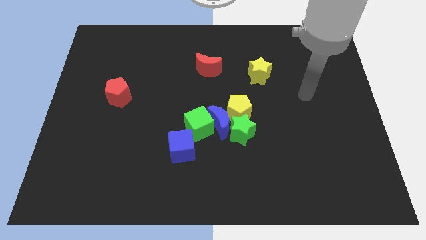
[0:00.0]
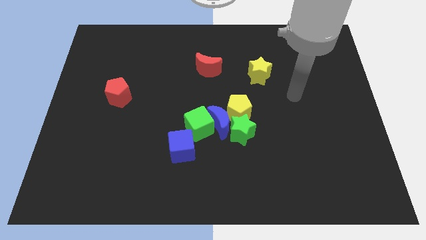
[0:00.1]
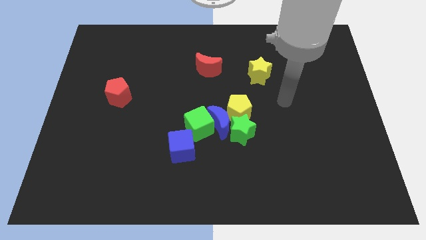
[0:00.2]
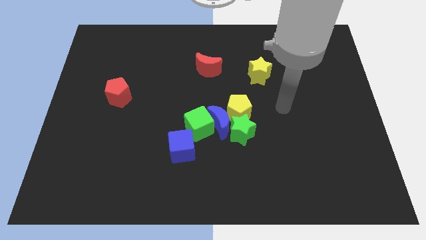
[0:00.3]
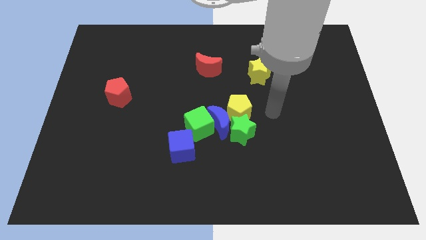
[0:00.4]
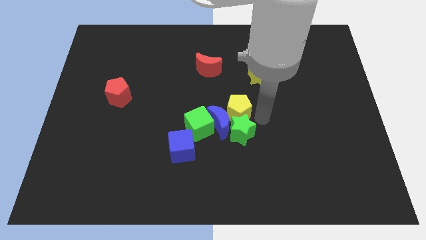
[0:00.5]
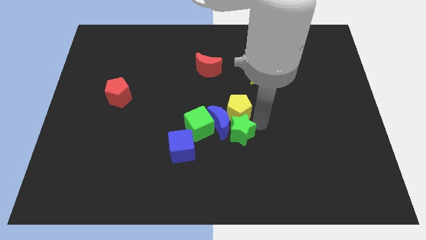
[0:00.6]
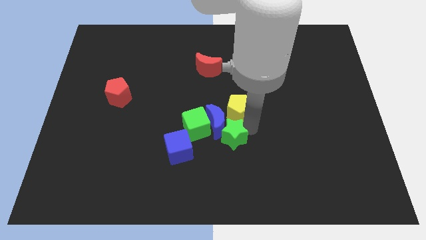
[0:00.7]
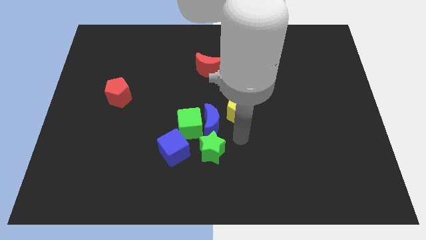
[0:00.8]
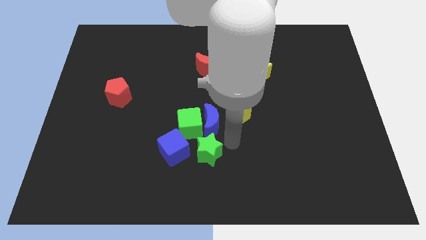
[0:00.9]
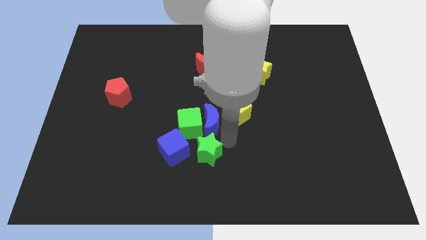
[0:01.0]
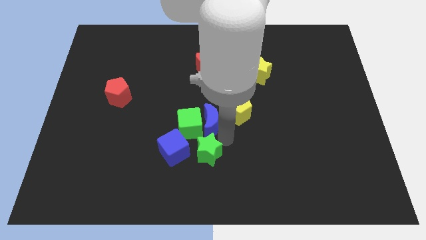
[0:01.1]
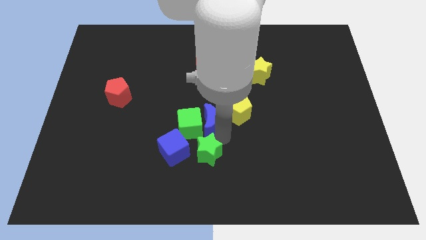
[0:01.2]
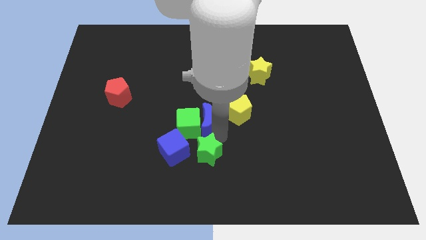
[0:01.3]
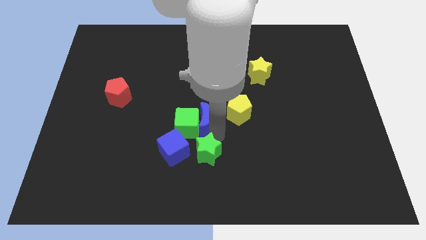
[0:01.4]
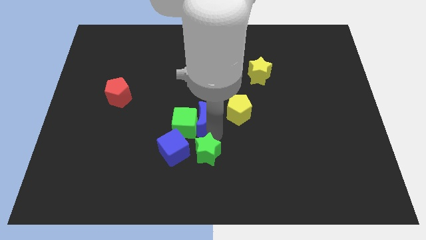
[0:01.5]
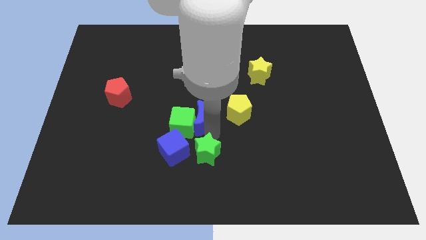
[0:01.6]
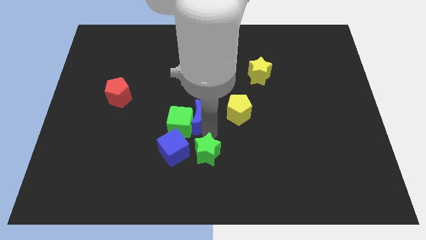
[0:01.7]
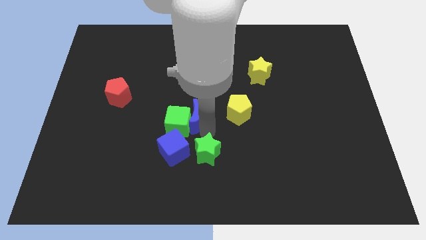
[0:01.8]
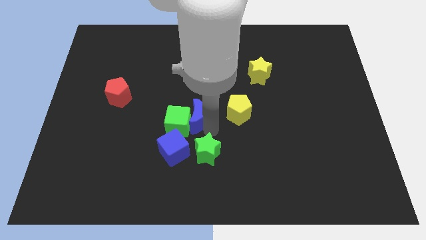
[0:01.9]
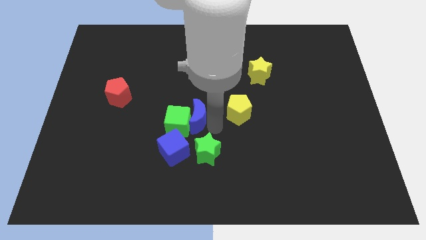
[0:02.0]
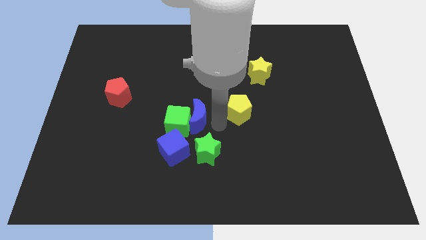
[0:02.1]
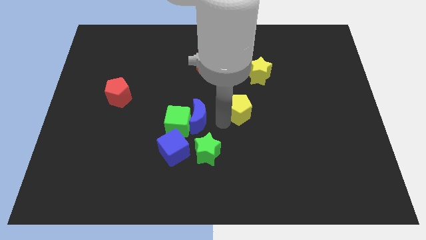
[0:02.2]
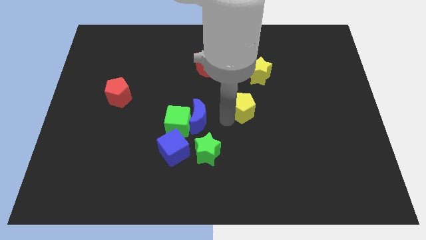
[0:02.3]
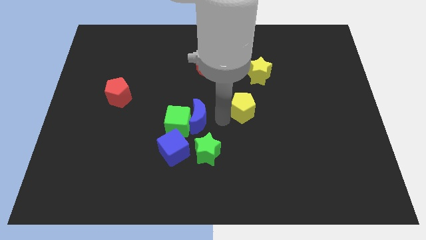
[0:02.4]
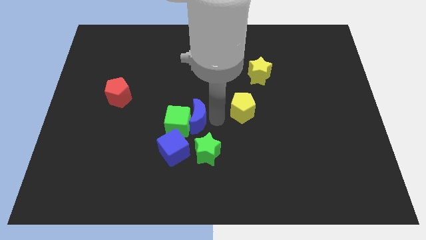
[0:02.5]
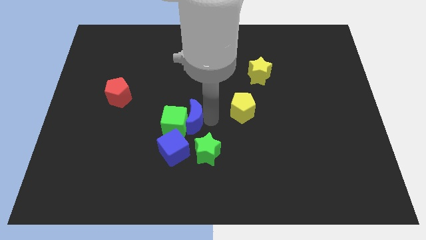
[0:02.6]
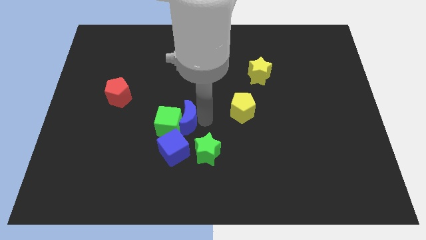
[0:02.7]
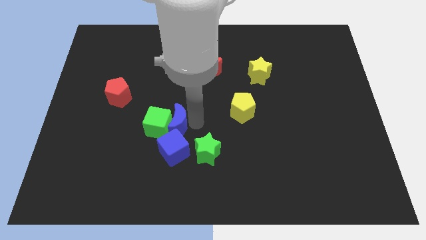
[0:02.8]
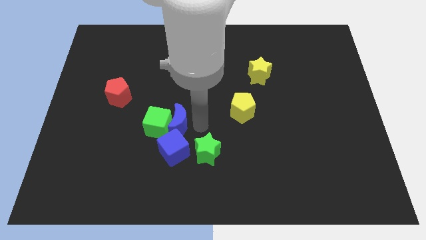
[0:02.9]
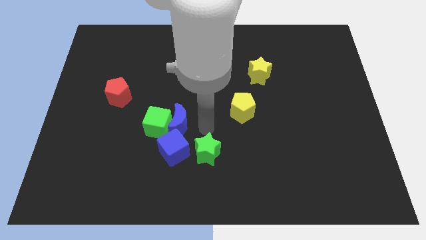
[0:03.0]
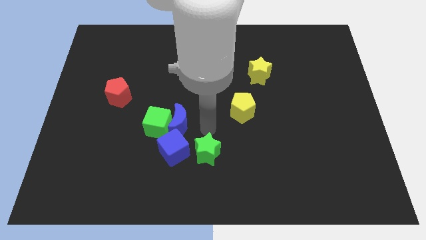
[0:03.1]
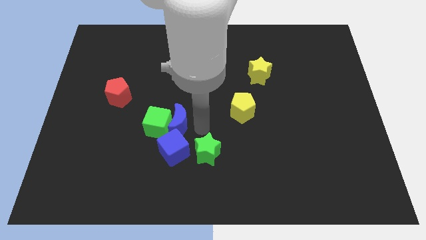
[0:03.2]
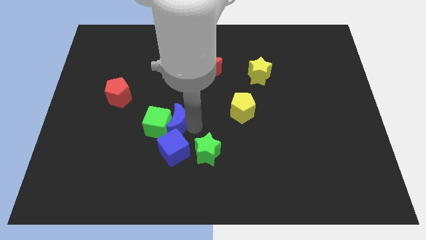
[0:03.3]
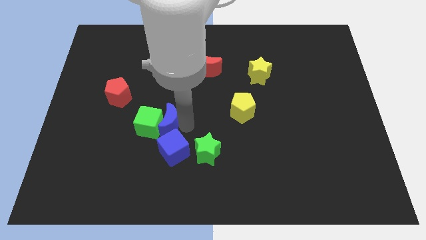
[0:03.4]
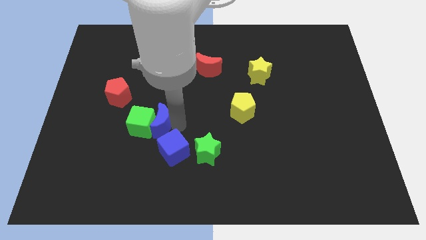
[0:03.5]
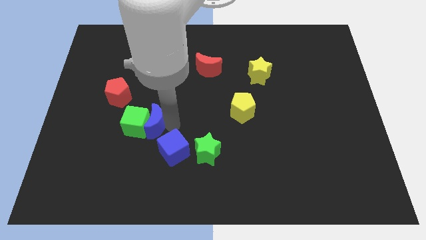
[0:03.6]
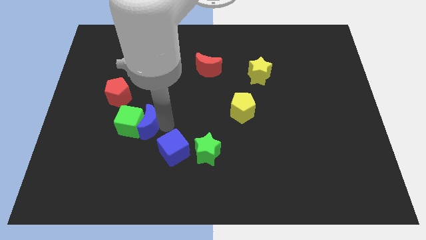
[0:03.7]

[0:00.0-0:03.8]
separate the blue moon from the group of blocks

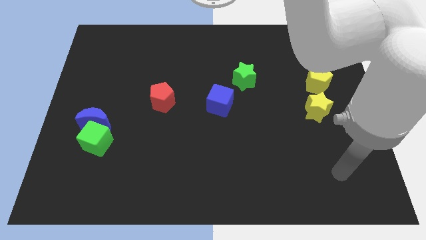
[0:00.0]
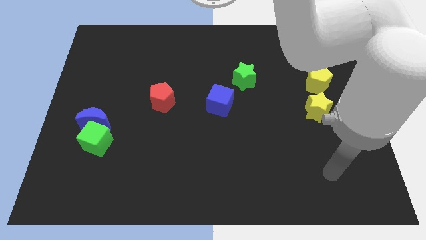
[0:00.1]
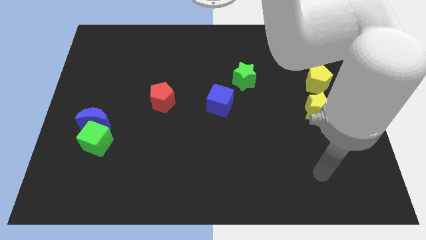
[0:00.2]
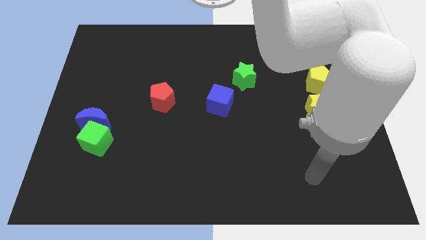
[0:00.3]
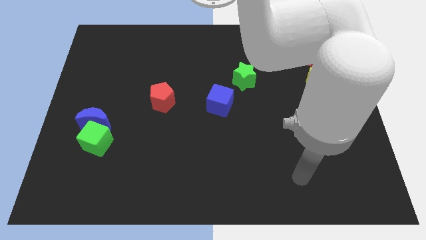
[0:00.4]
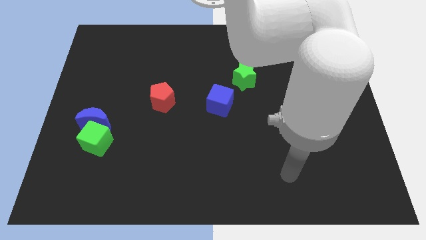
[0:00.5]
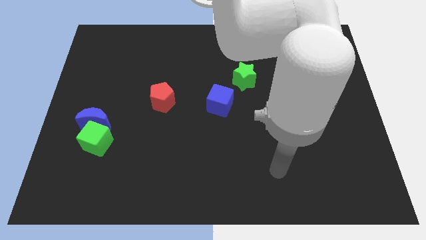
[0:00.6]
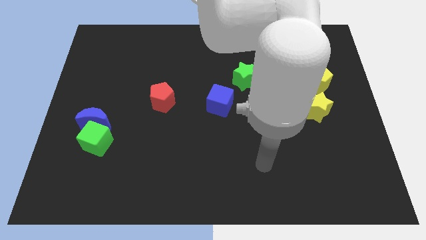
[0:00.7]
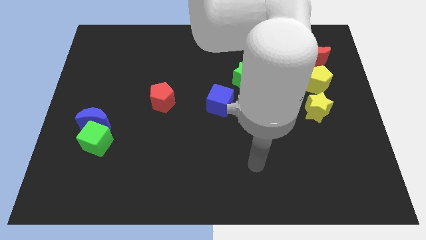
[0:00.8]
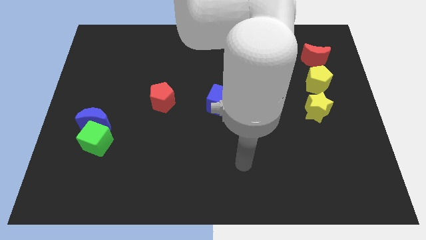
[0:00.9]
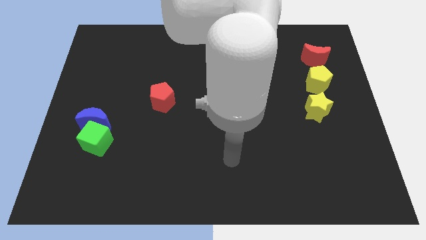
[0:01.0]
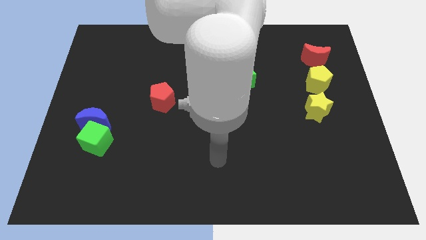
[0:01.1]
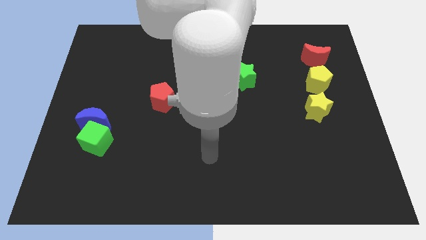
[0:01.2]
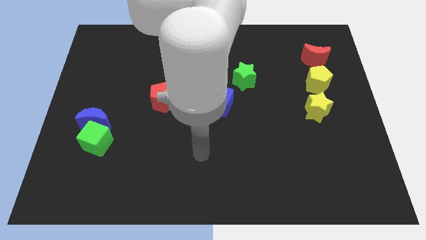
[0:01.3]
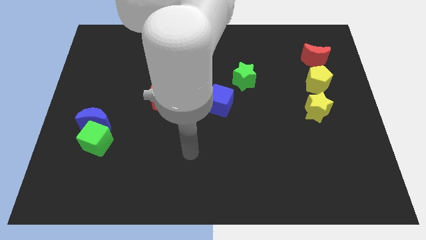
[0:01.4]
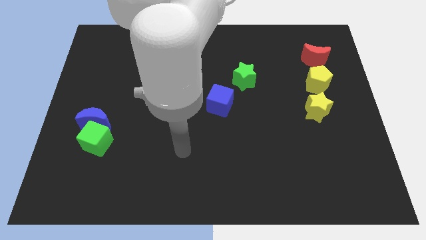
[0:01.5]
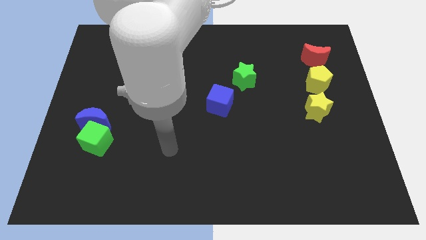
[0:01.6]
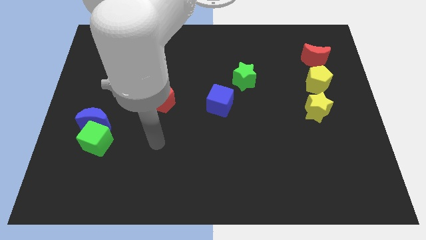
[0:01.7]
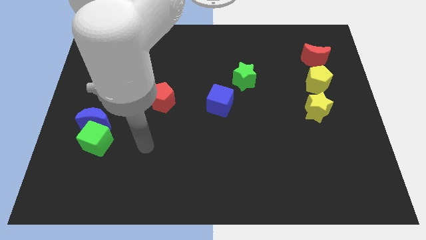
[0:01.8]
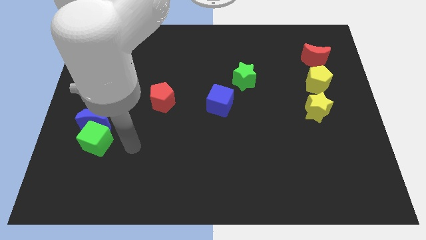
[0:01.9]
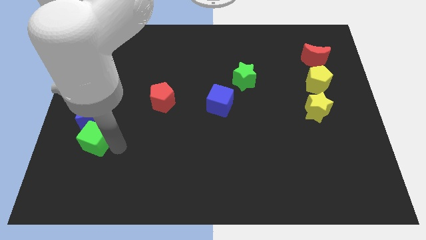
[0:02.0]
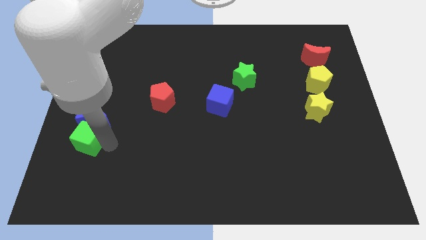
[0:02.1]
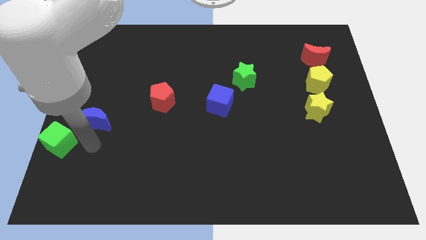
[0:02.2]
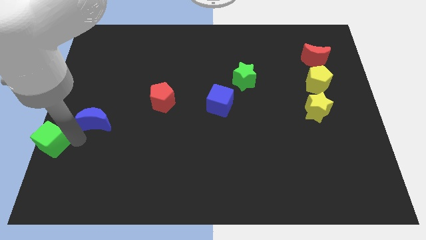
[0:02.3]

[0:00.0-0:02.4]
pull the blue moon apart from the green cube

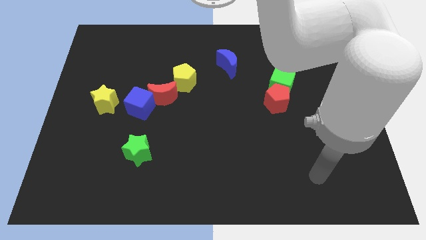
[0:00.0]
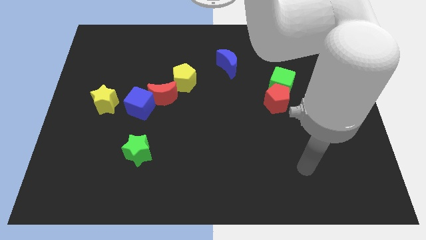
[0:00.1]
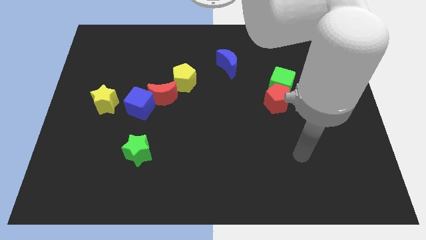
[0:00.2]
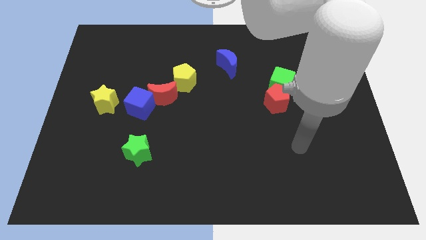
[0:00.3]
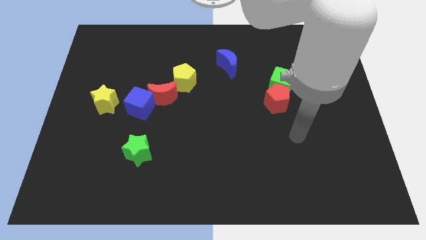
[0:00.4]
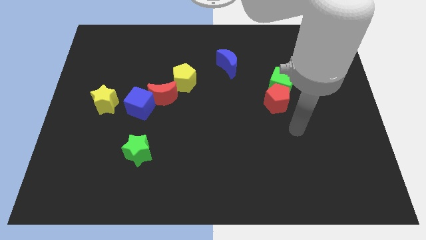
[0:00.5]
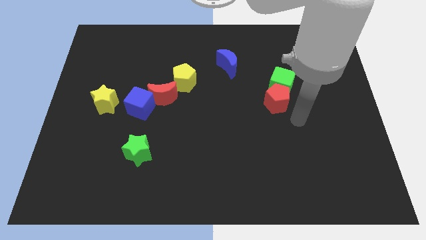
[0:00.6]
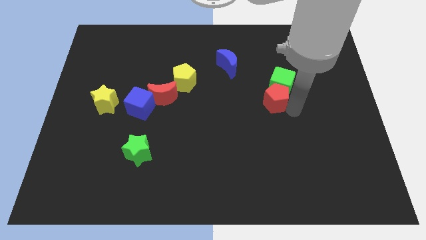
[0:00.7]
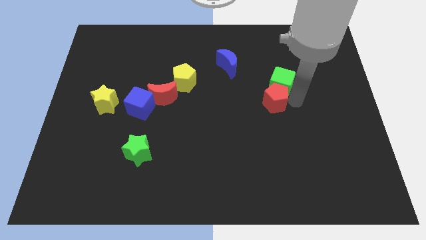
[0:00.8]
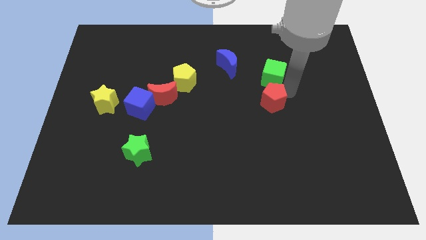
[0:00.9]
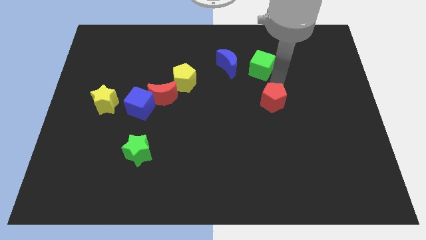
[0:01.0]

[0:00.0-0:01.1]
pull the red pentagon apart from the green cube

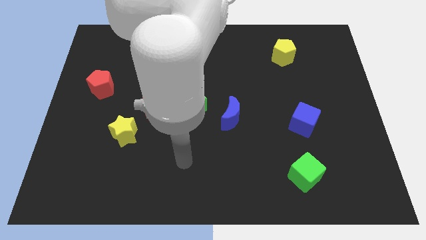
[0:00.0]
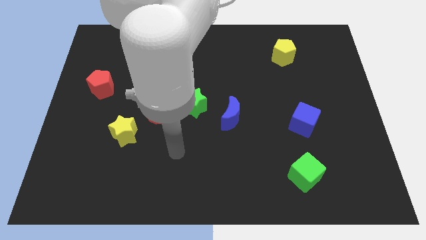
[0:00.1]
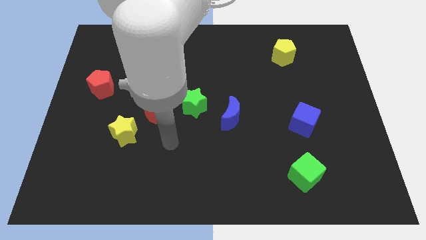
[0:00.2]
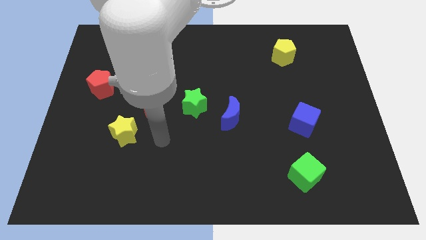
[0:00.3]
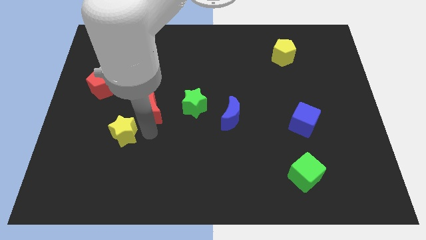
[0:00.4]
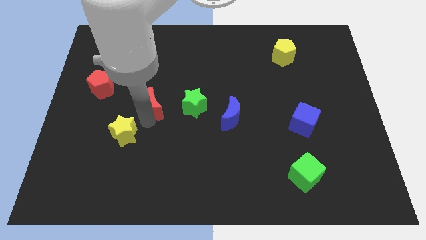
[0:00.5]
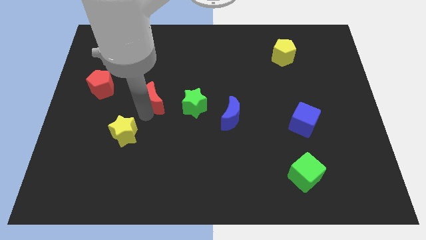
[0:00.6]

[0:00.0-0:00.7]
move the yellow star away from the red moon

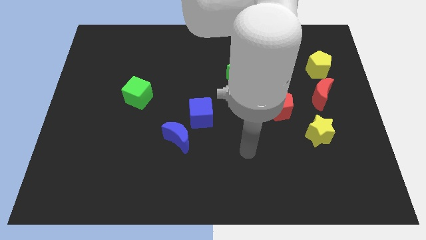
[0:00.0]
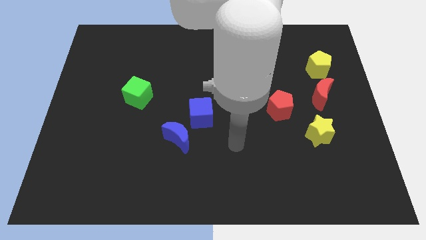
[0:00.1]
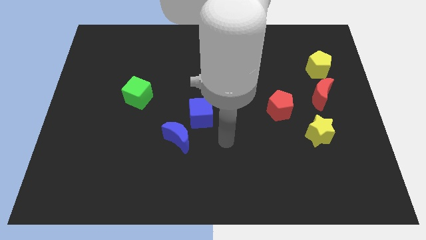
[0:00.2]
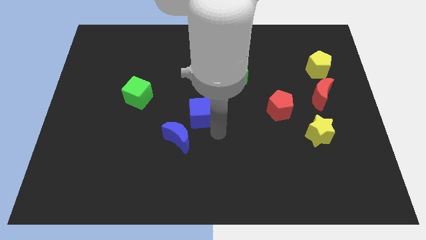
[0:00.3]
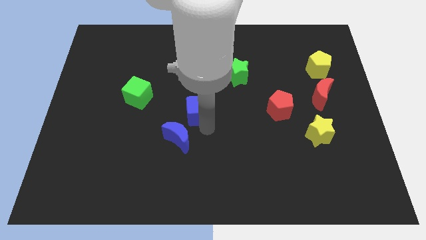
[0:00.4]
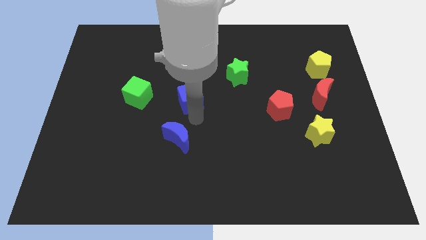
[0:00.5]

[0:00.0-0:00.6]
separate the blue moon from the blue cube

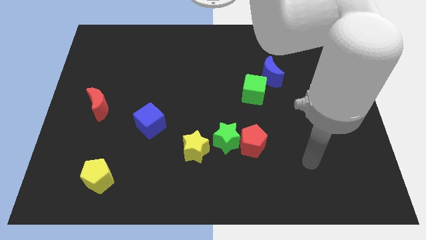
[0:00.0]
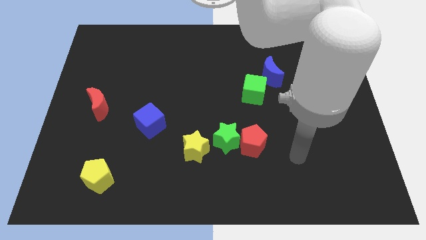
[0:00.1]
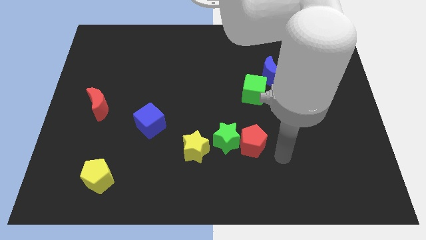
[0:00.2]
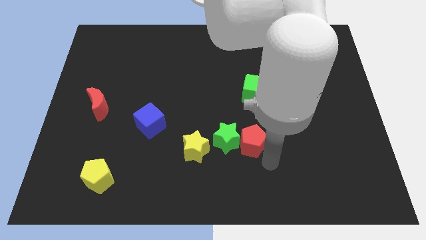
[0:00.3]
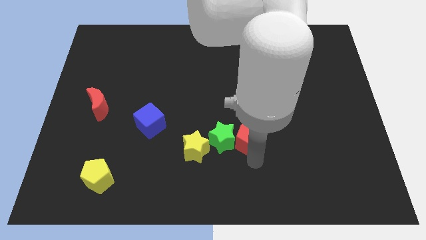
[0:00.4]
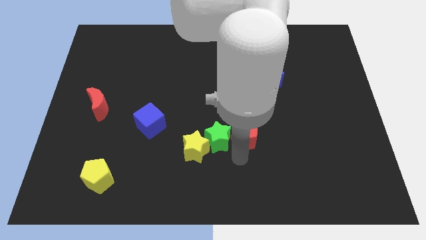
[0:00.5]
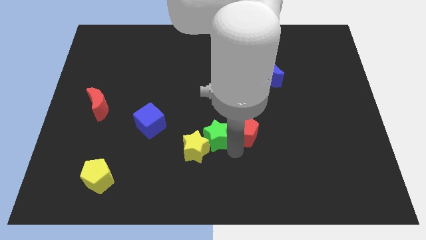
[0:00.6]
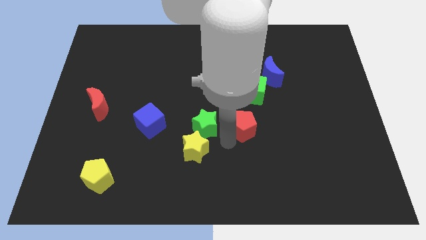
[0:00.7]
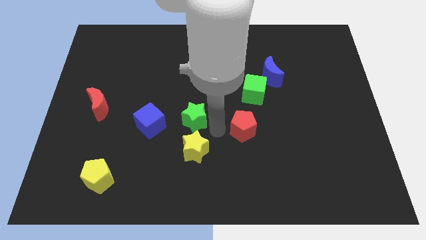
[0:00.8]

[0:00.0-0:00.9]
pull the red pentagon apart from the green star
